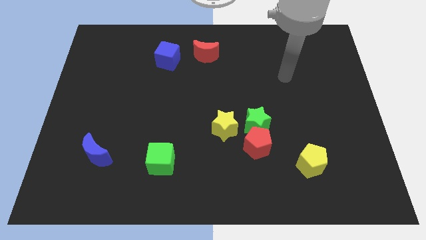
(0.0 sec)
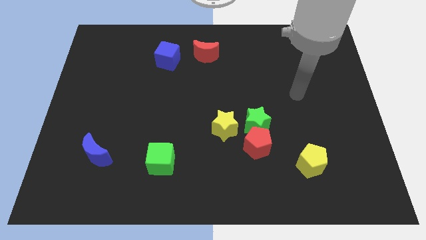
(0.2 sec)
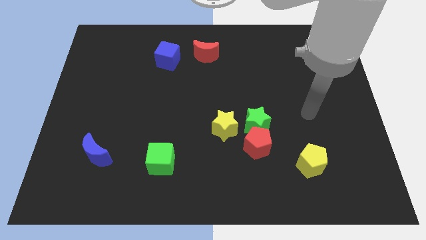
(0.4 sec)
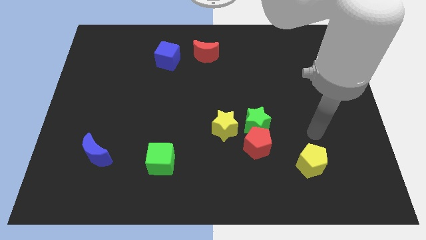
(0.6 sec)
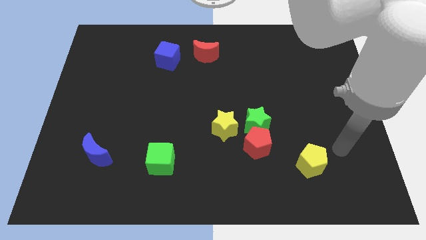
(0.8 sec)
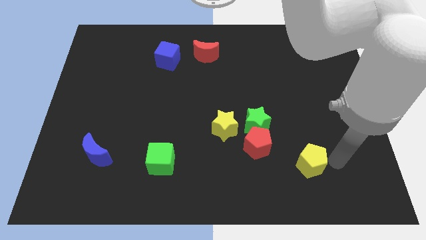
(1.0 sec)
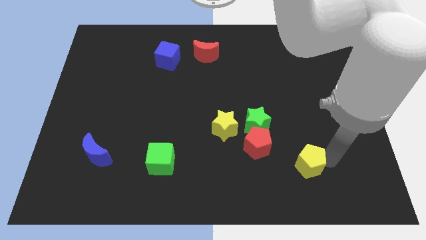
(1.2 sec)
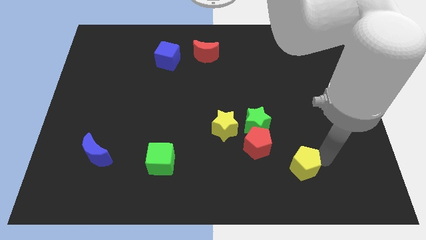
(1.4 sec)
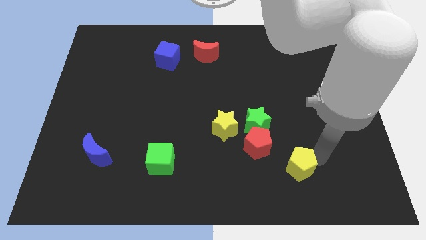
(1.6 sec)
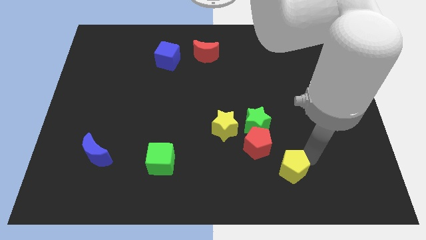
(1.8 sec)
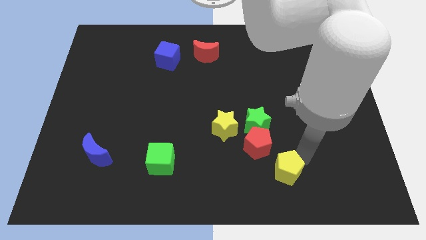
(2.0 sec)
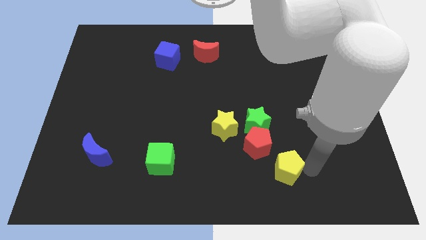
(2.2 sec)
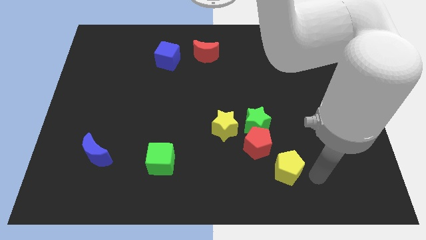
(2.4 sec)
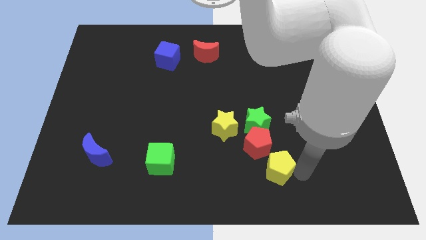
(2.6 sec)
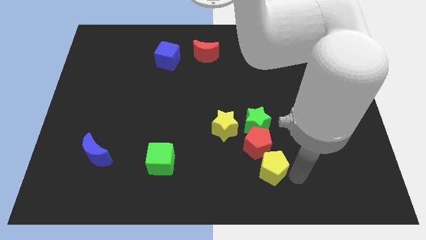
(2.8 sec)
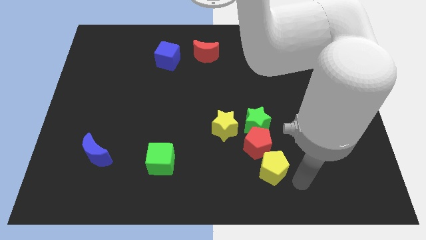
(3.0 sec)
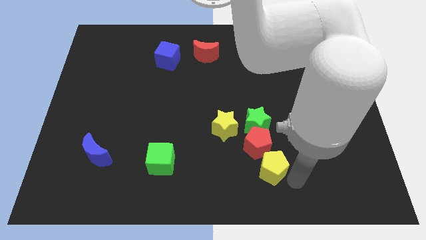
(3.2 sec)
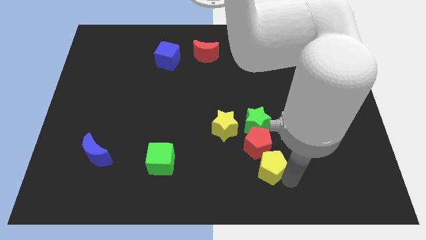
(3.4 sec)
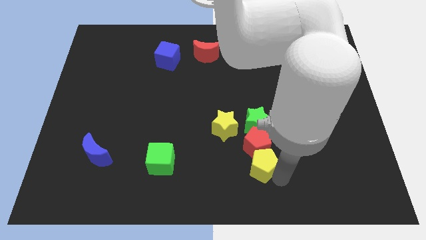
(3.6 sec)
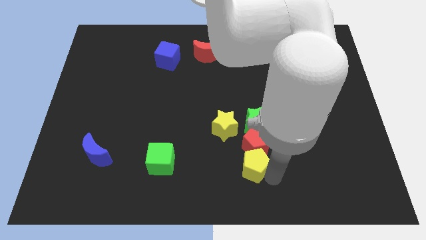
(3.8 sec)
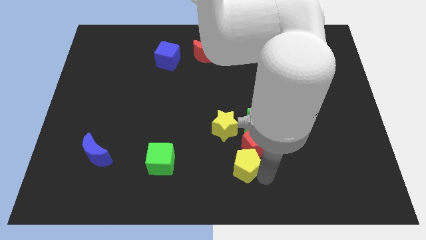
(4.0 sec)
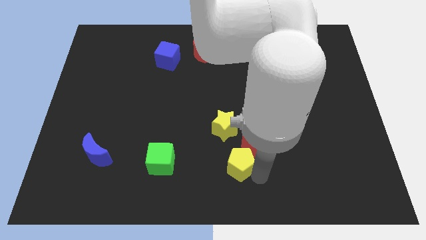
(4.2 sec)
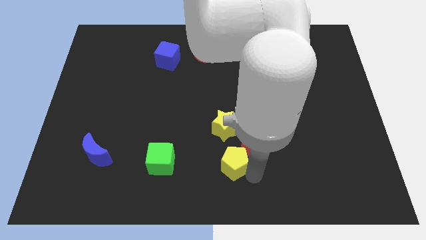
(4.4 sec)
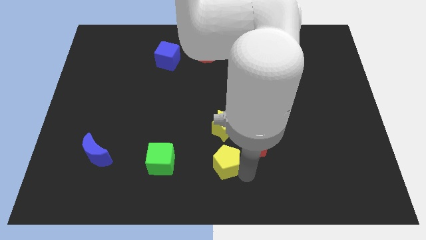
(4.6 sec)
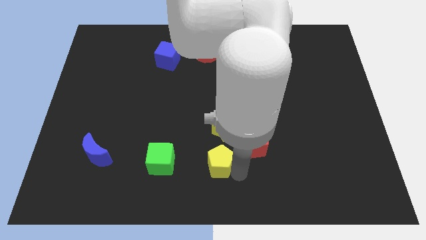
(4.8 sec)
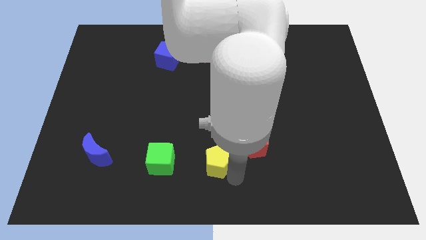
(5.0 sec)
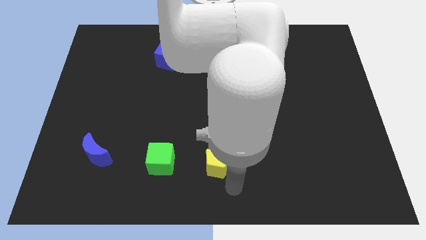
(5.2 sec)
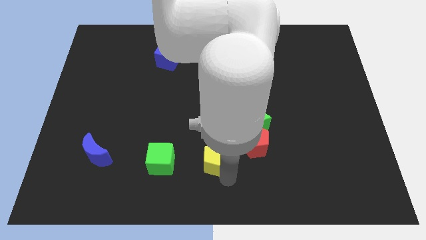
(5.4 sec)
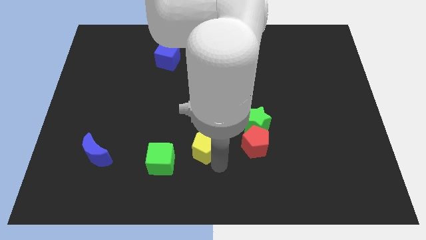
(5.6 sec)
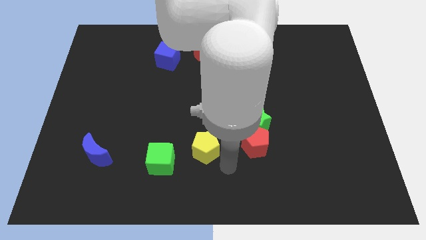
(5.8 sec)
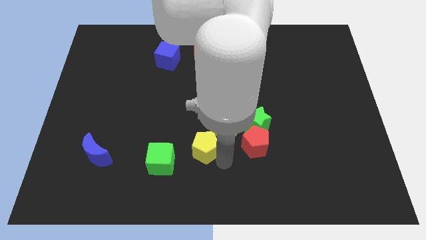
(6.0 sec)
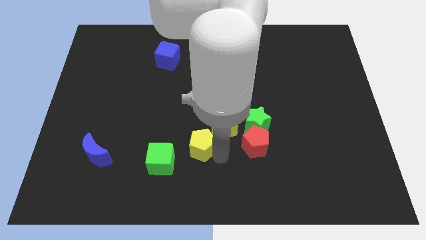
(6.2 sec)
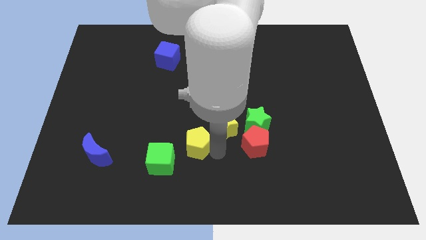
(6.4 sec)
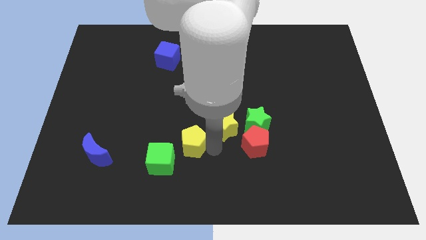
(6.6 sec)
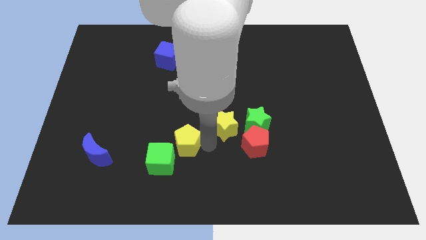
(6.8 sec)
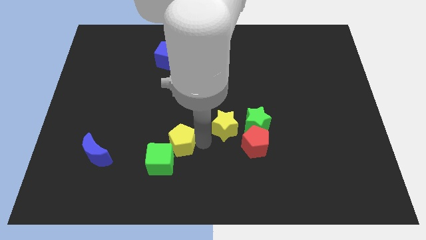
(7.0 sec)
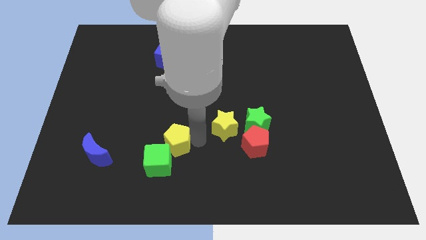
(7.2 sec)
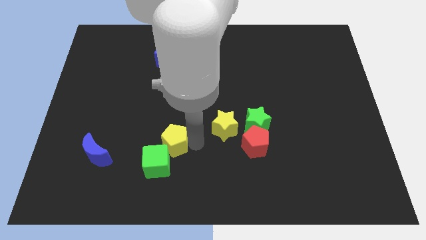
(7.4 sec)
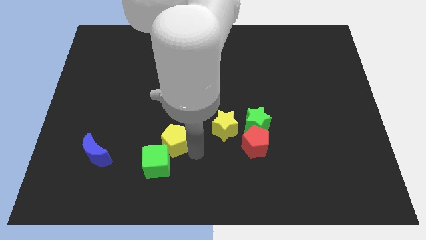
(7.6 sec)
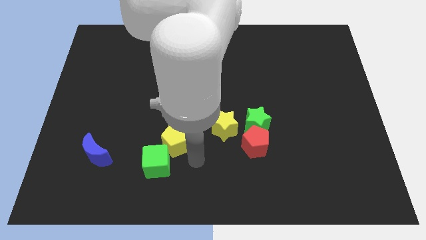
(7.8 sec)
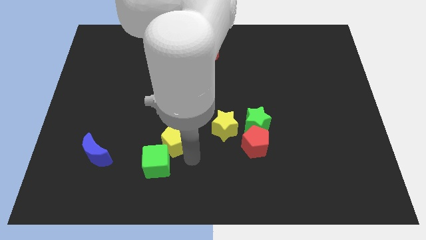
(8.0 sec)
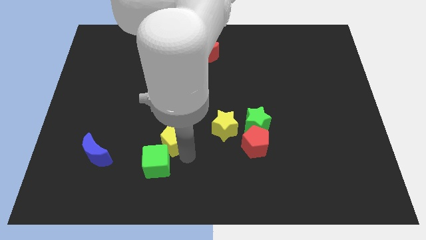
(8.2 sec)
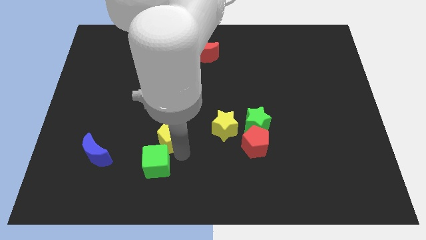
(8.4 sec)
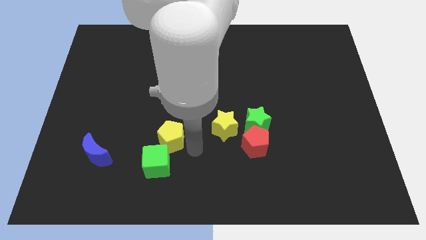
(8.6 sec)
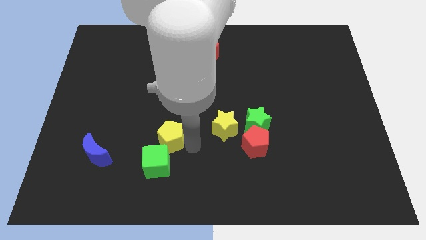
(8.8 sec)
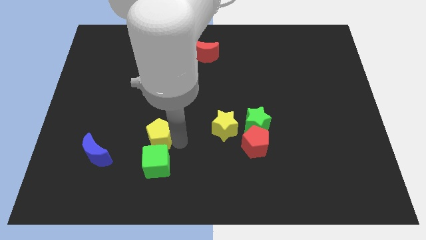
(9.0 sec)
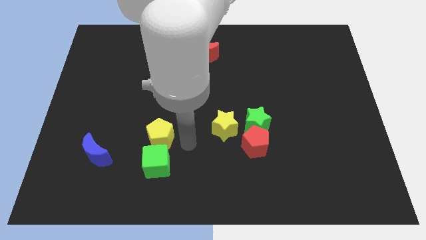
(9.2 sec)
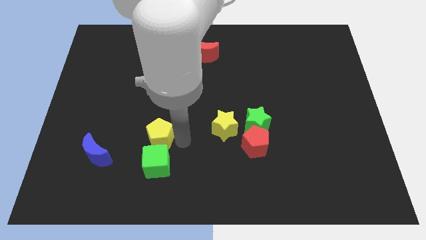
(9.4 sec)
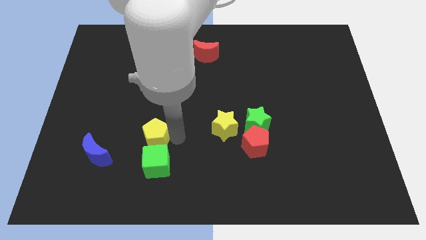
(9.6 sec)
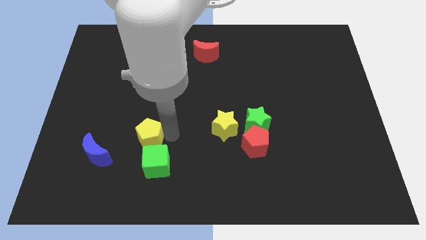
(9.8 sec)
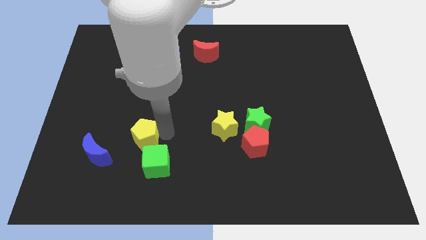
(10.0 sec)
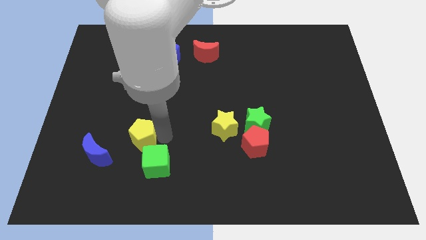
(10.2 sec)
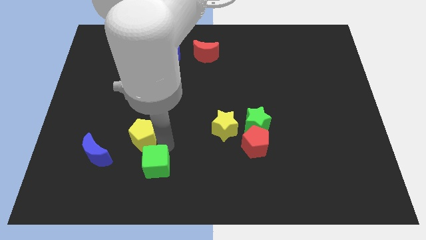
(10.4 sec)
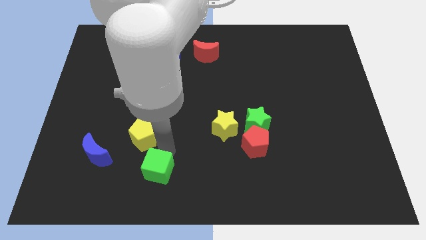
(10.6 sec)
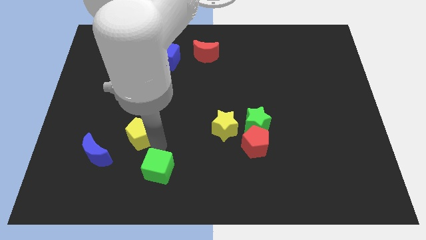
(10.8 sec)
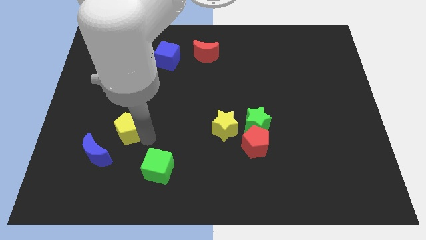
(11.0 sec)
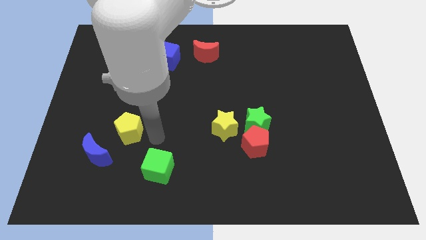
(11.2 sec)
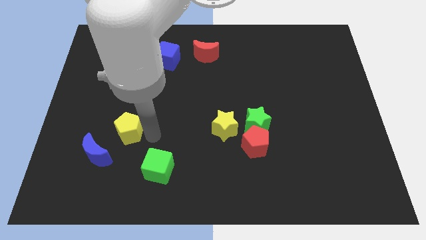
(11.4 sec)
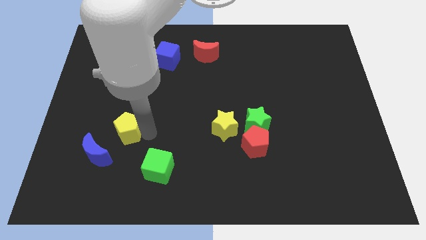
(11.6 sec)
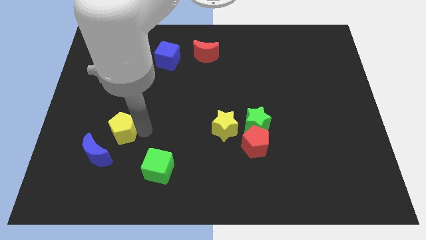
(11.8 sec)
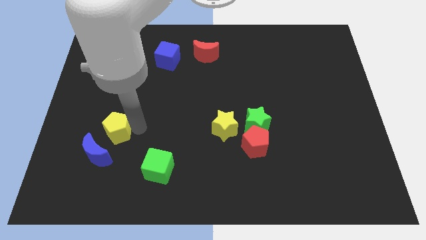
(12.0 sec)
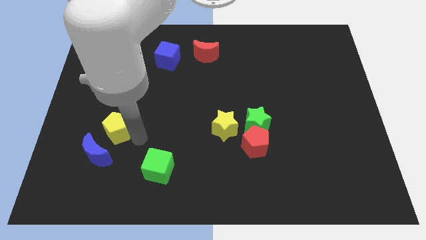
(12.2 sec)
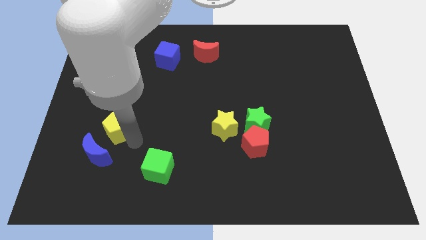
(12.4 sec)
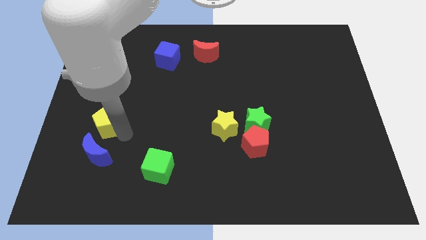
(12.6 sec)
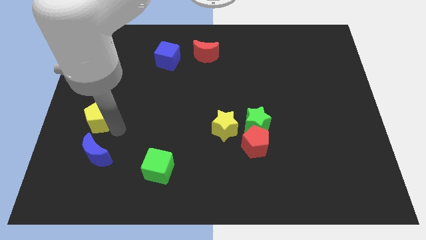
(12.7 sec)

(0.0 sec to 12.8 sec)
slide the yellow pentagon to the left side of the board
